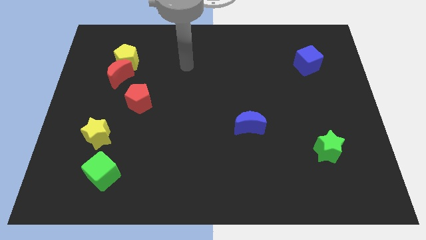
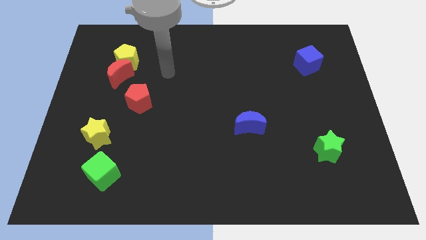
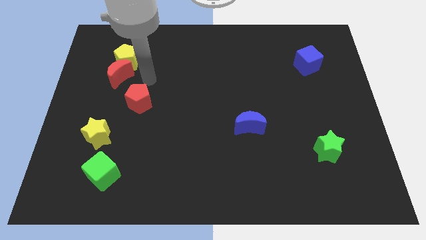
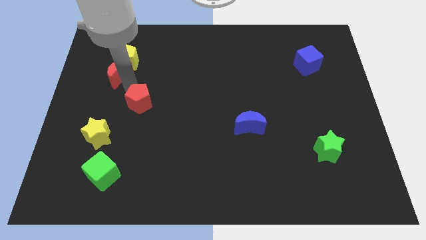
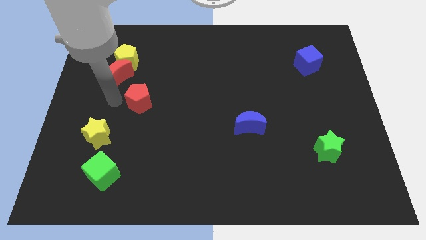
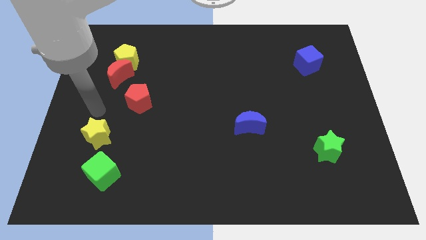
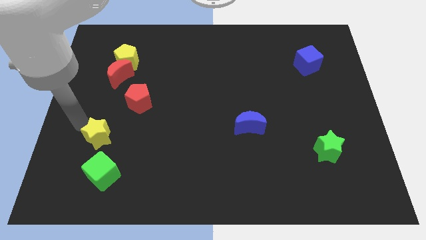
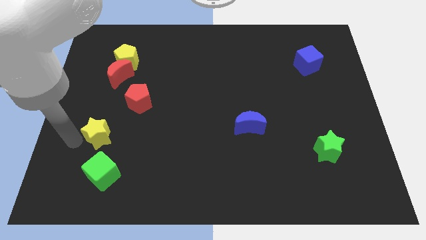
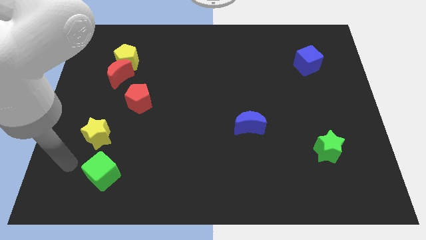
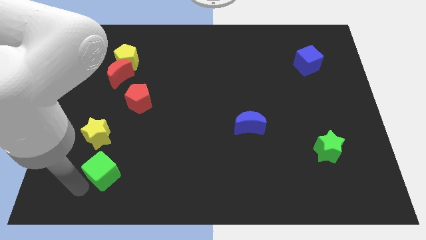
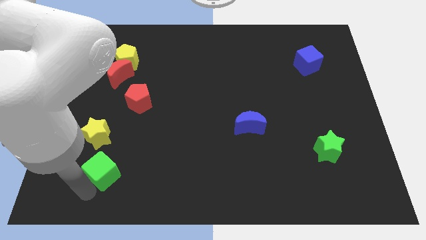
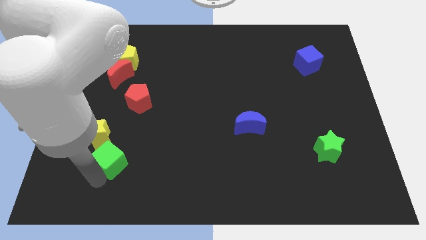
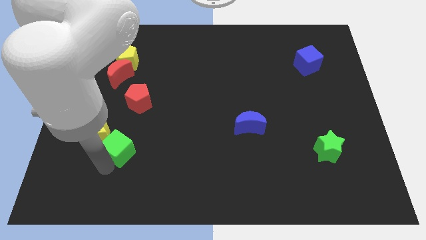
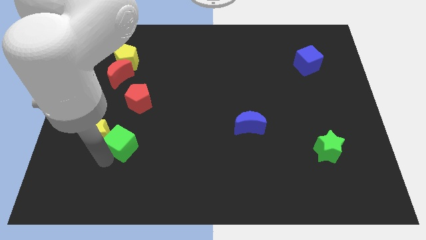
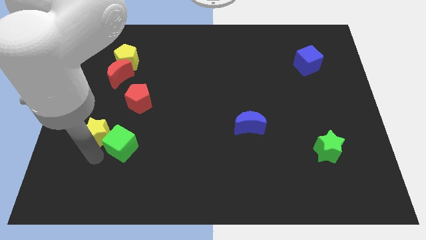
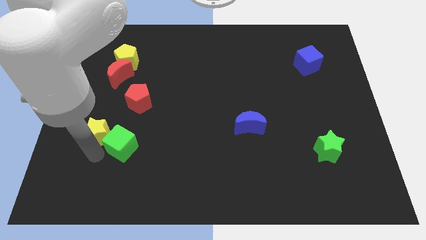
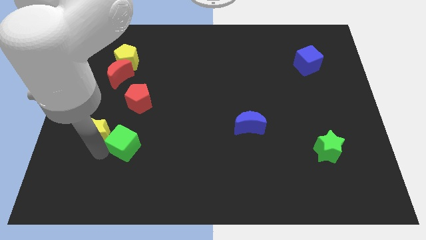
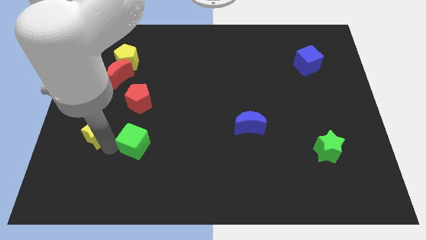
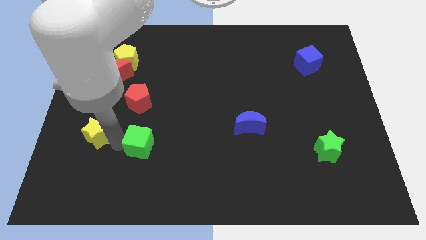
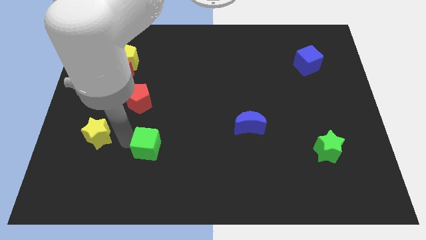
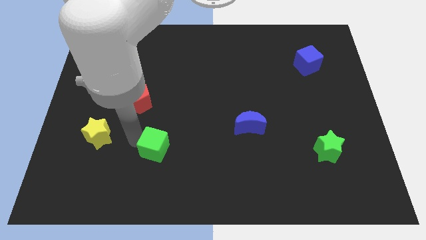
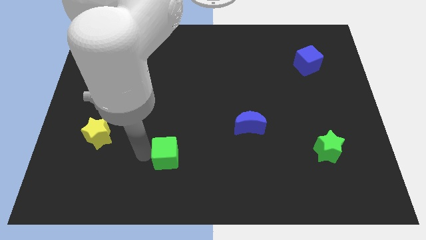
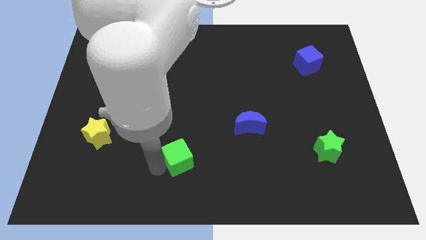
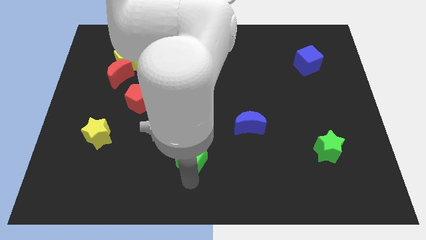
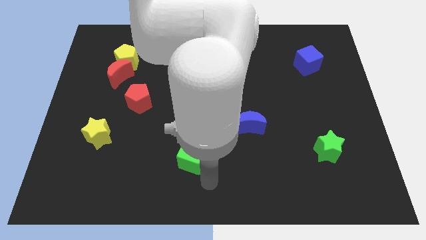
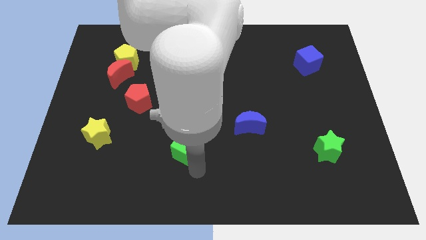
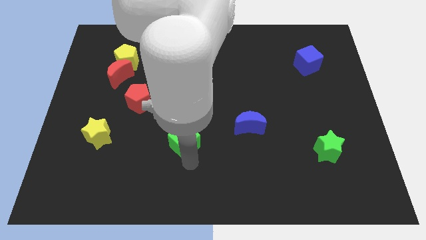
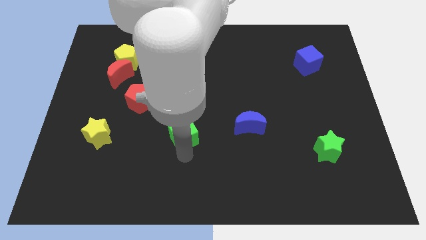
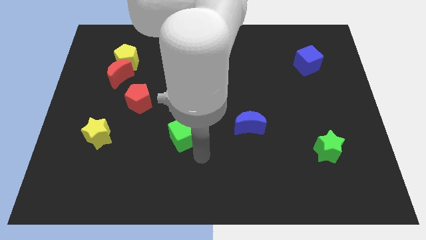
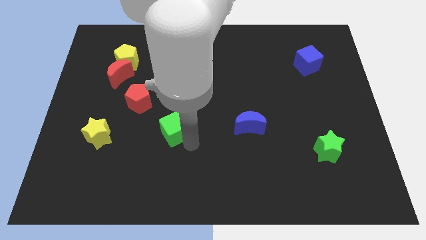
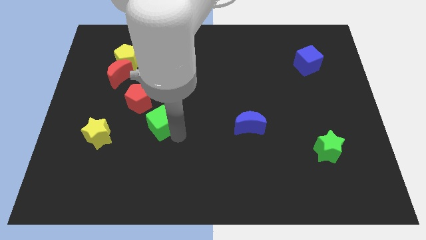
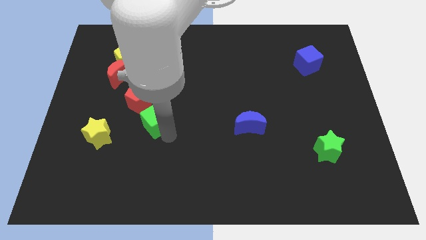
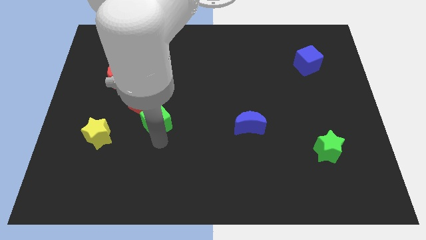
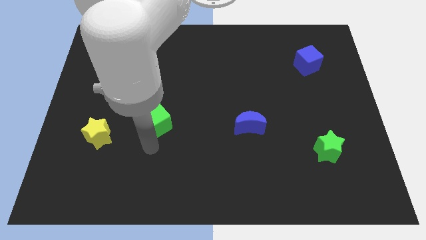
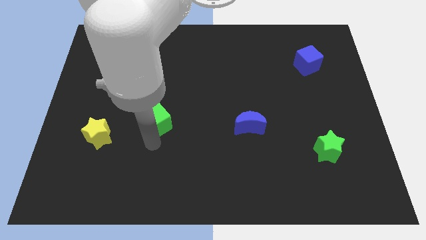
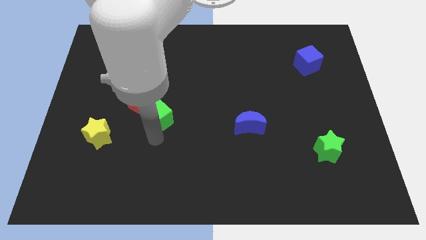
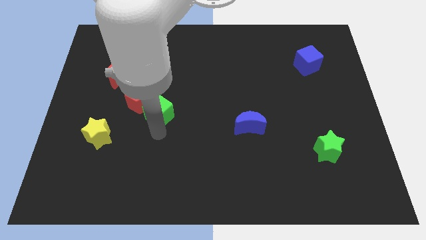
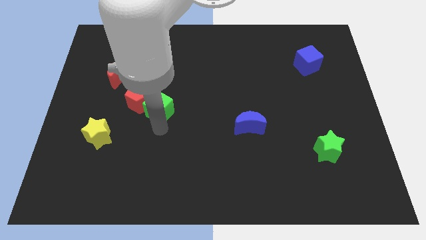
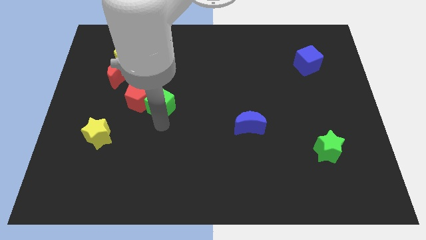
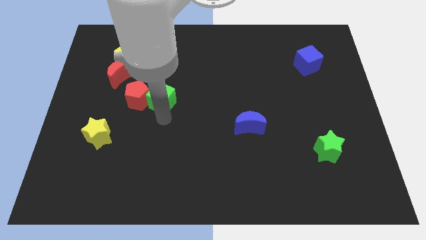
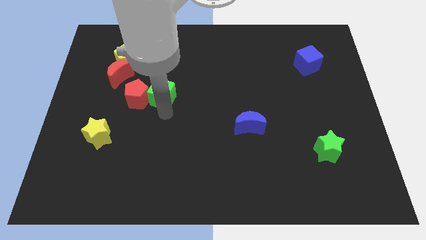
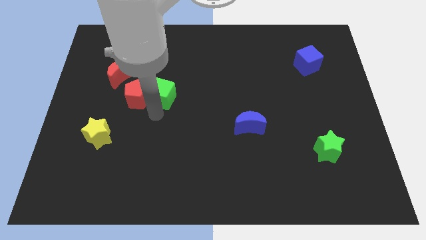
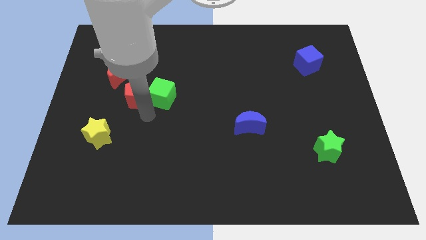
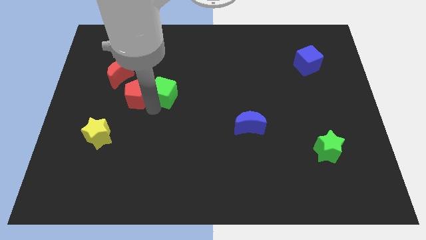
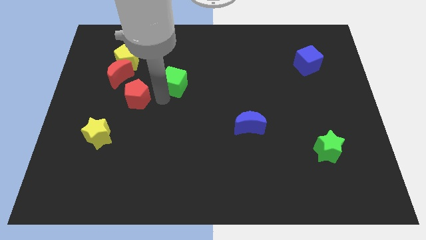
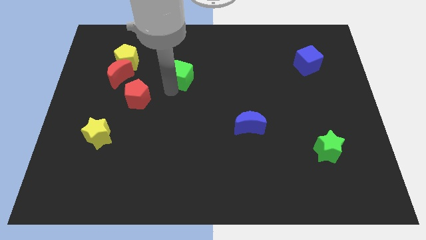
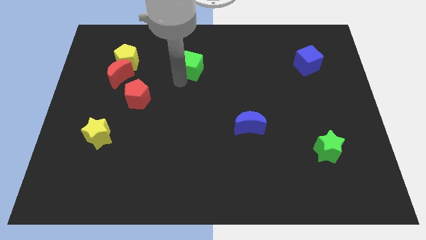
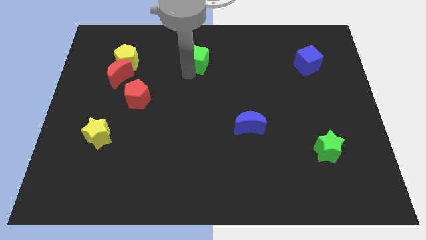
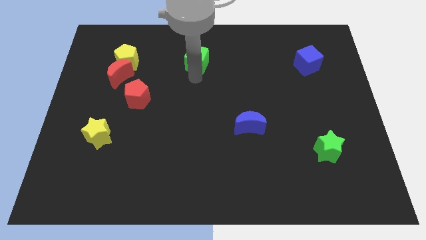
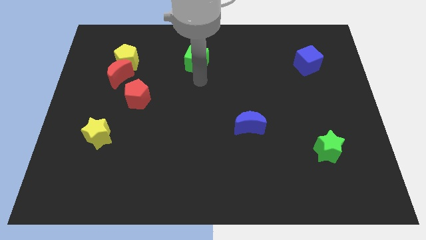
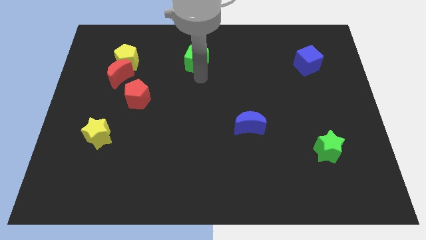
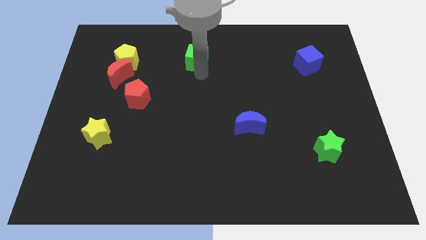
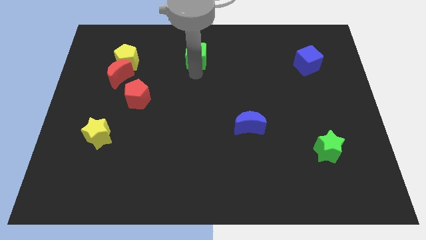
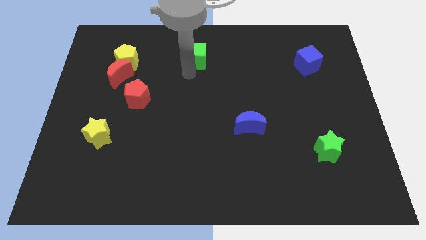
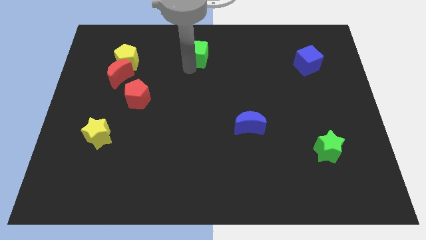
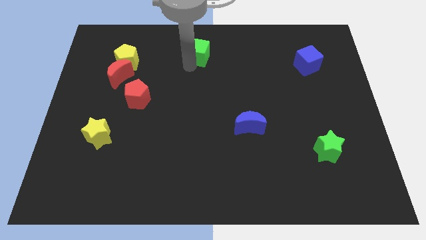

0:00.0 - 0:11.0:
slide the green cube to the top

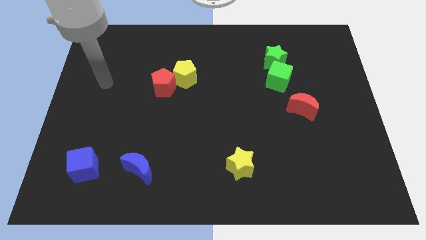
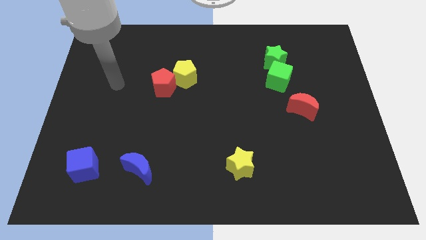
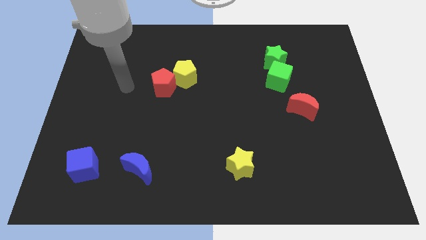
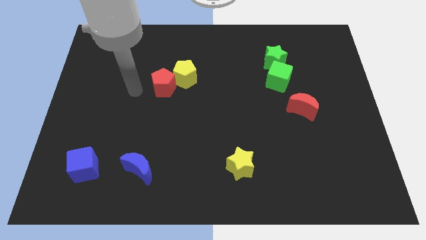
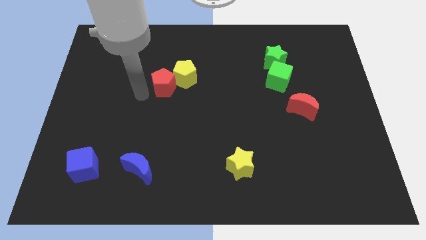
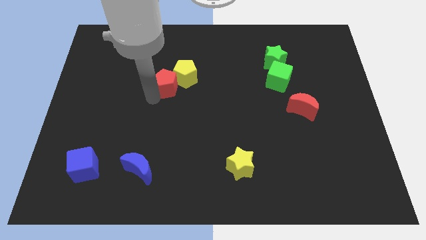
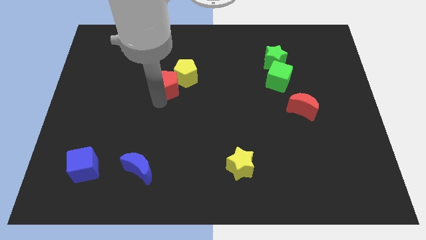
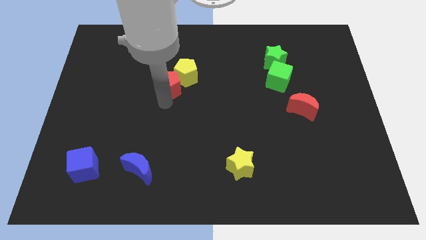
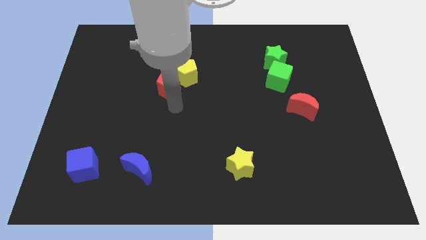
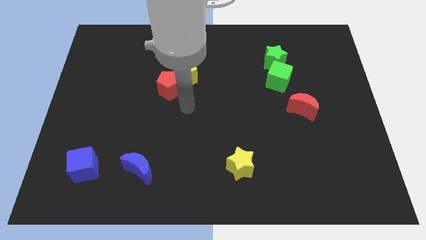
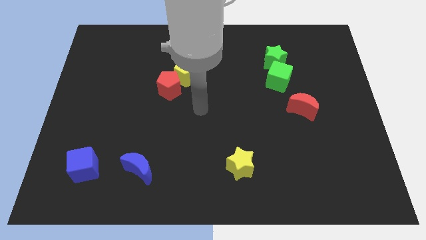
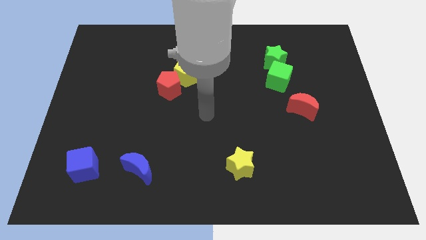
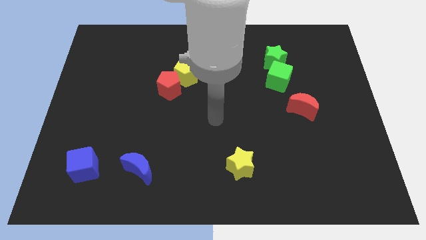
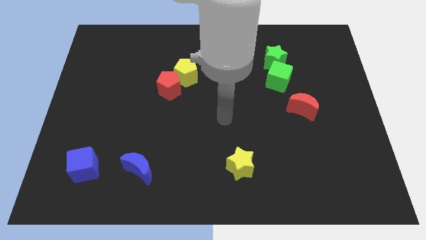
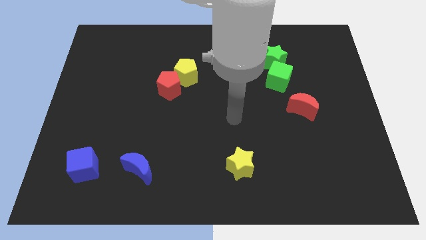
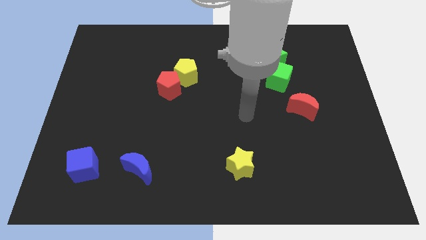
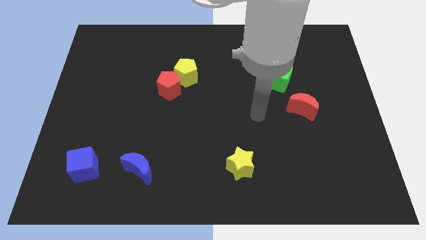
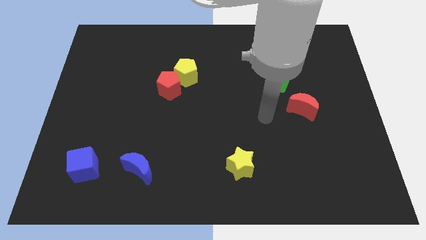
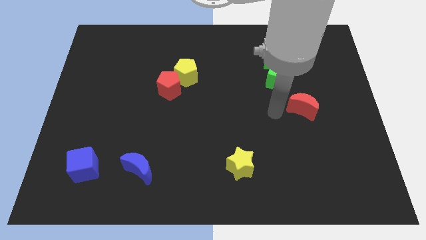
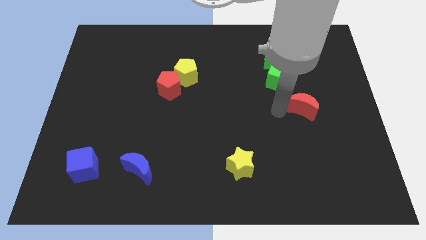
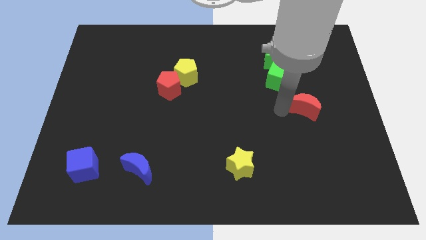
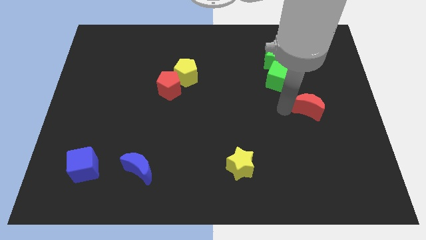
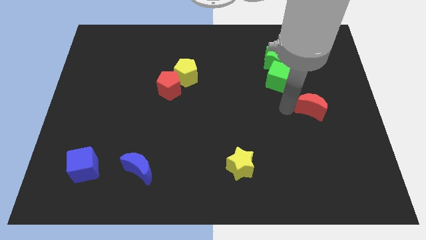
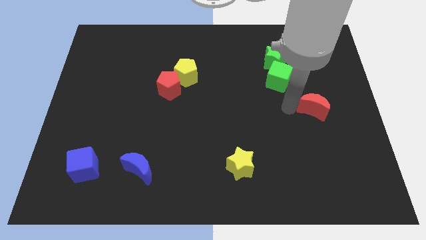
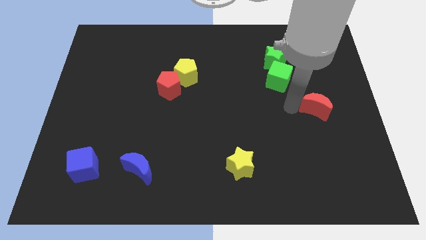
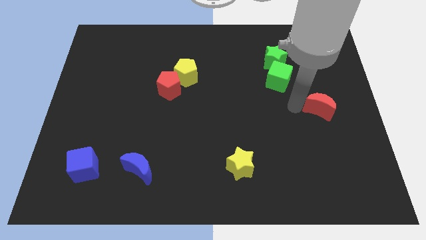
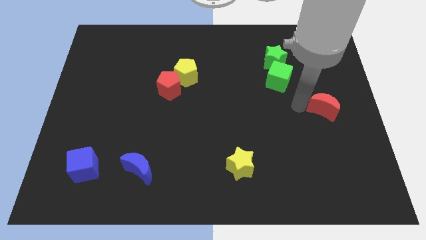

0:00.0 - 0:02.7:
slide the red moon to the center right
